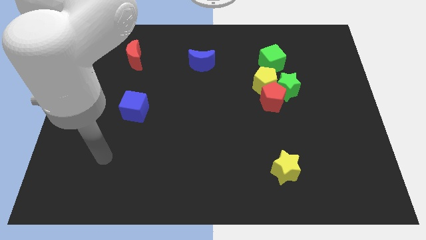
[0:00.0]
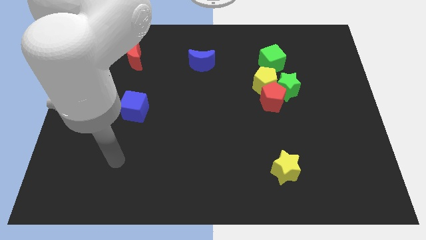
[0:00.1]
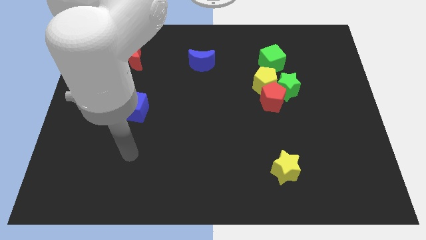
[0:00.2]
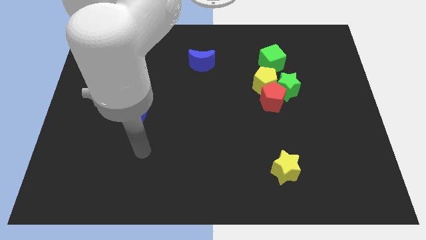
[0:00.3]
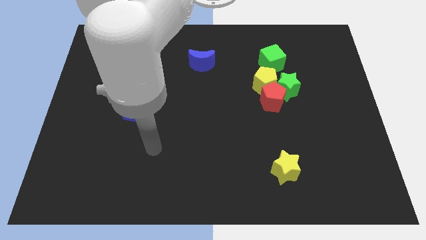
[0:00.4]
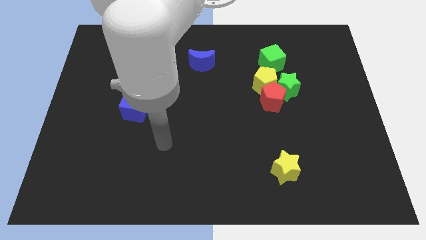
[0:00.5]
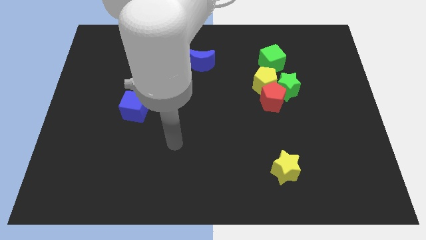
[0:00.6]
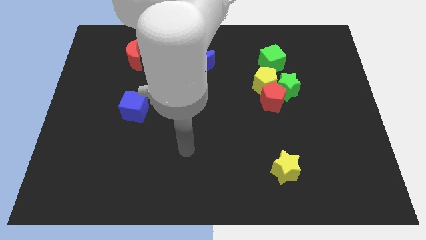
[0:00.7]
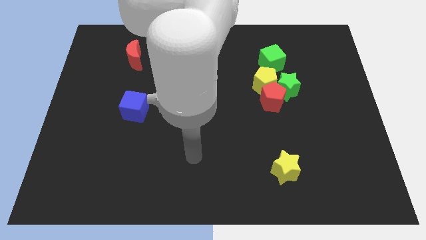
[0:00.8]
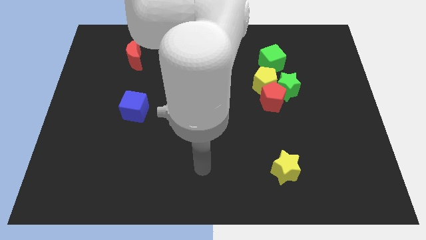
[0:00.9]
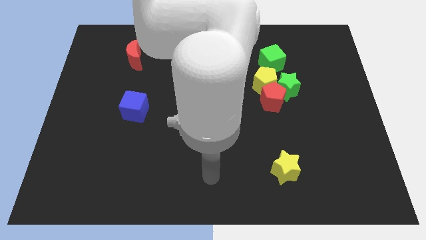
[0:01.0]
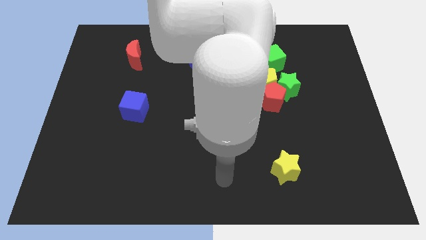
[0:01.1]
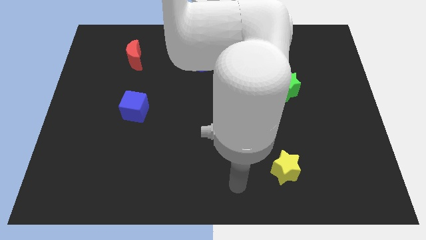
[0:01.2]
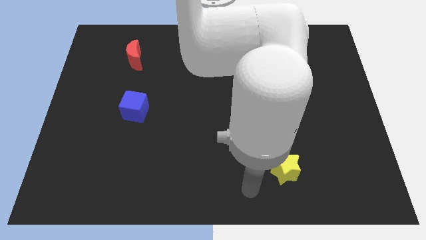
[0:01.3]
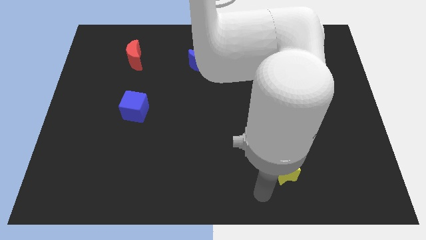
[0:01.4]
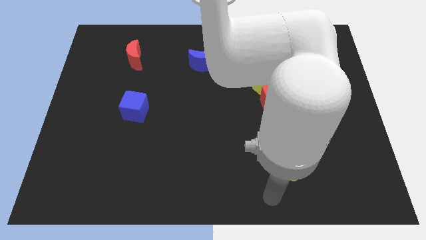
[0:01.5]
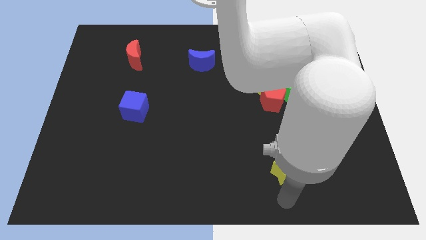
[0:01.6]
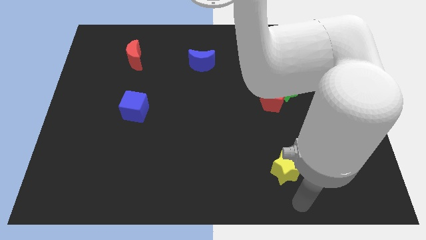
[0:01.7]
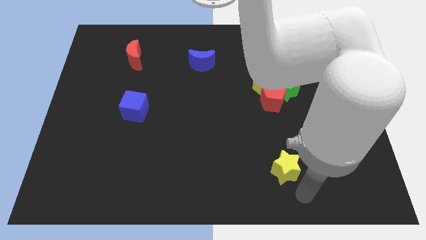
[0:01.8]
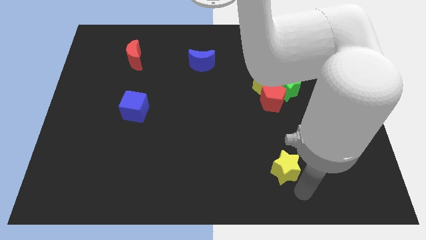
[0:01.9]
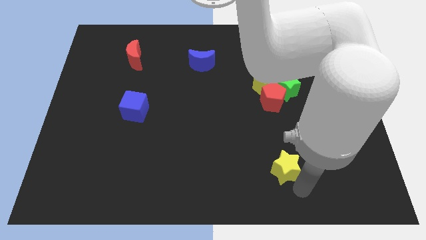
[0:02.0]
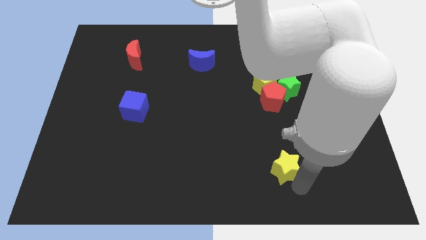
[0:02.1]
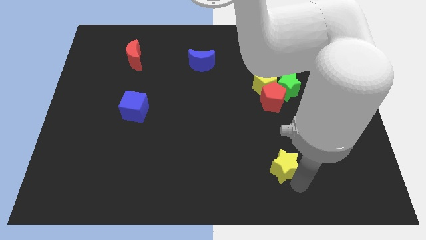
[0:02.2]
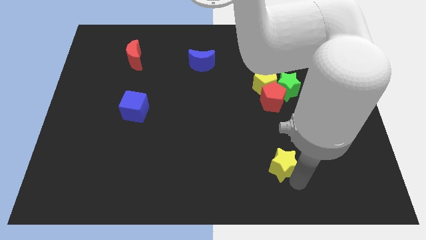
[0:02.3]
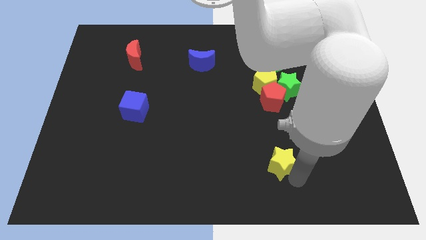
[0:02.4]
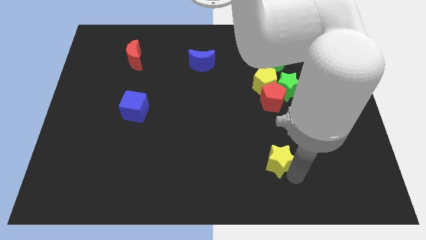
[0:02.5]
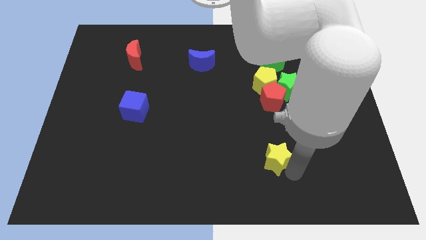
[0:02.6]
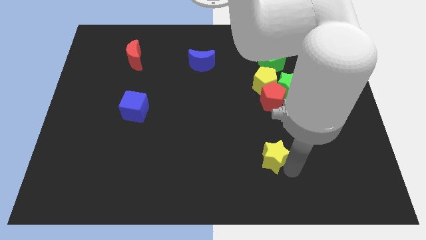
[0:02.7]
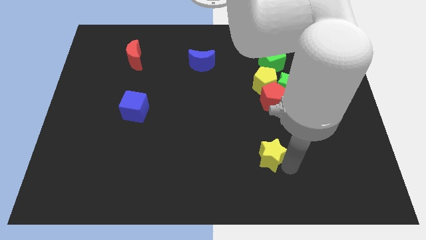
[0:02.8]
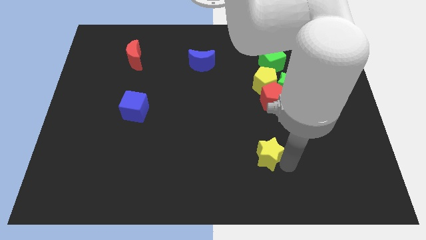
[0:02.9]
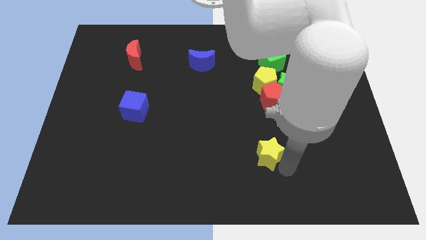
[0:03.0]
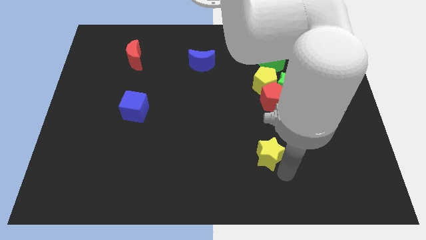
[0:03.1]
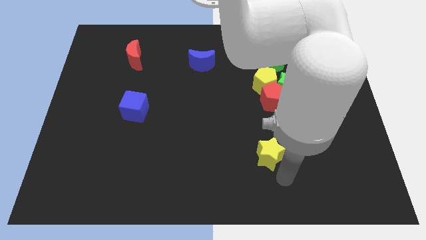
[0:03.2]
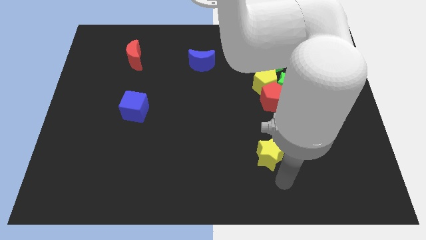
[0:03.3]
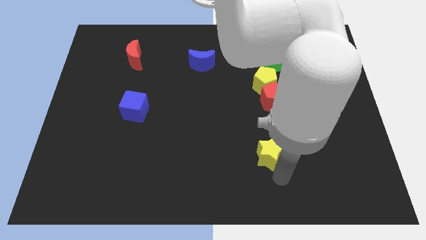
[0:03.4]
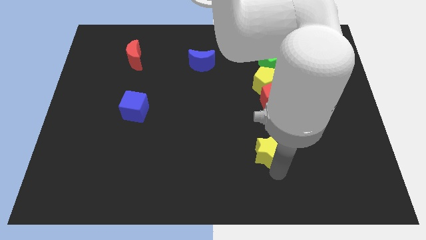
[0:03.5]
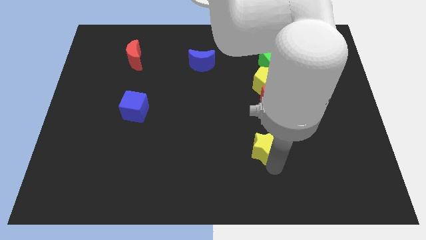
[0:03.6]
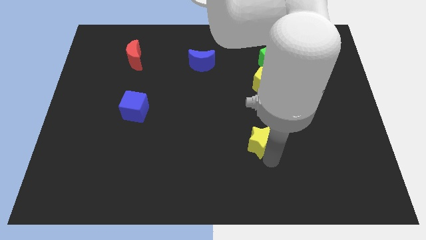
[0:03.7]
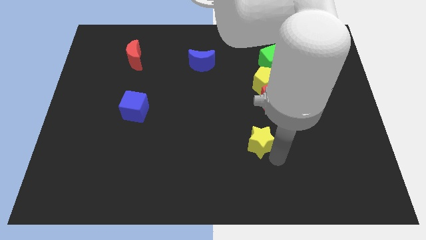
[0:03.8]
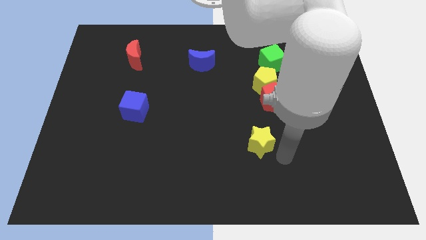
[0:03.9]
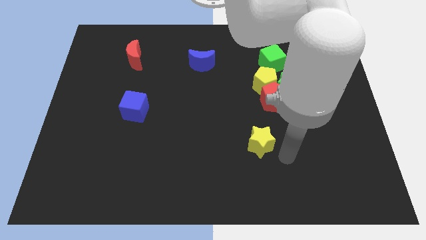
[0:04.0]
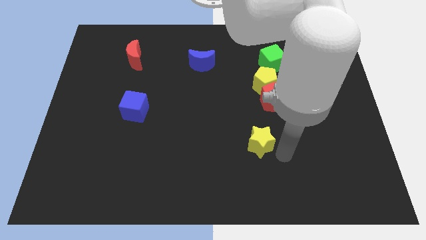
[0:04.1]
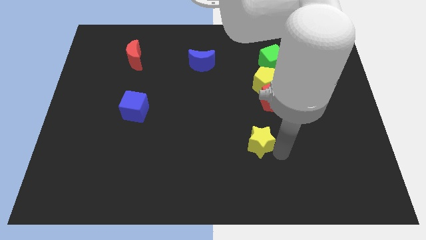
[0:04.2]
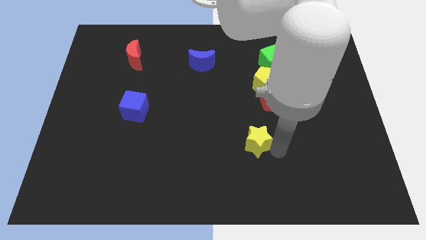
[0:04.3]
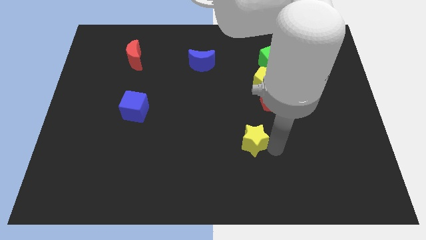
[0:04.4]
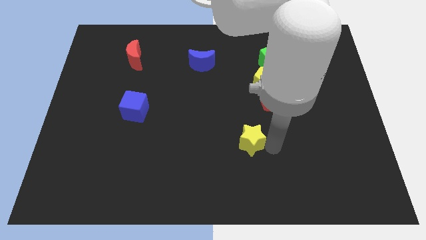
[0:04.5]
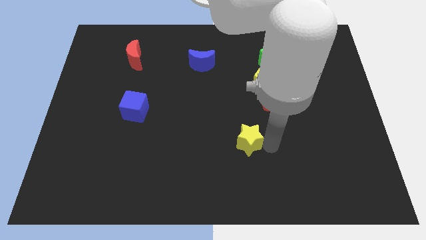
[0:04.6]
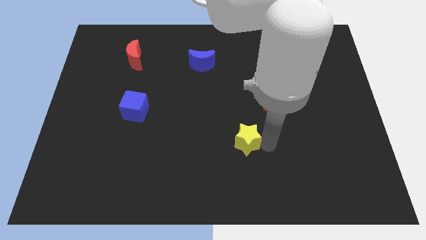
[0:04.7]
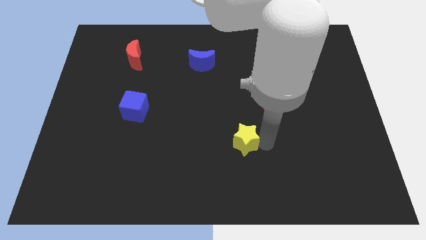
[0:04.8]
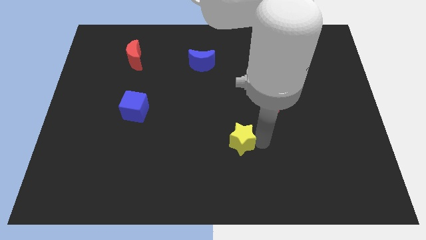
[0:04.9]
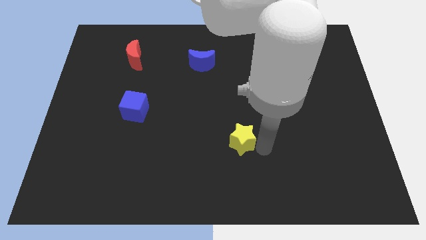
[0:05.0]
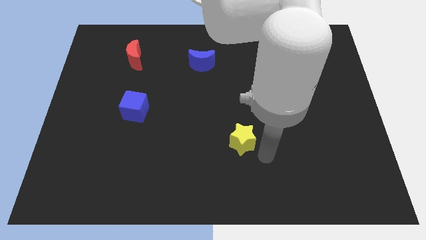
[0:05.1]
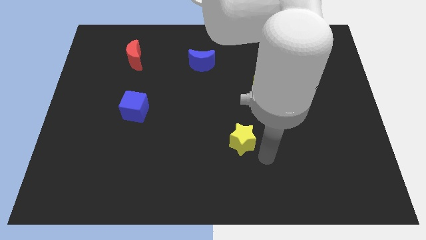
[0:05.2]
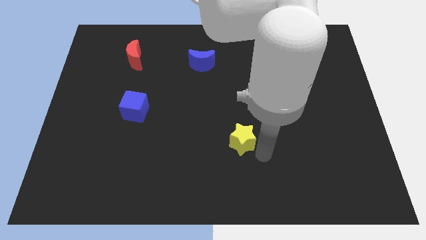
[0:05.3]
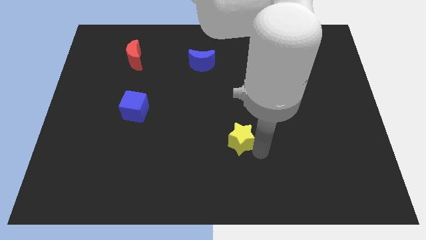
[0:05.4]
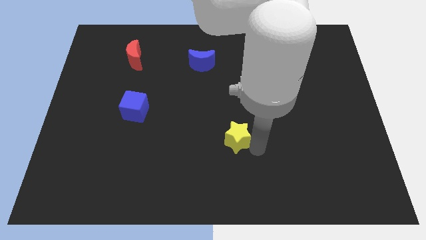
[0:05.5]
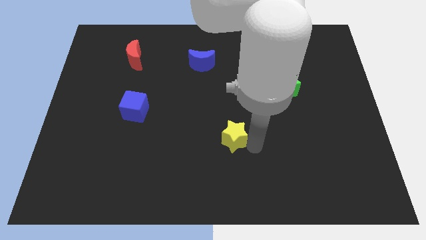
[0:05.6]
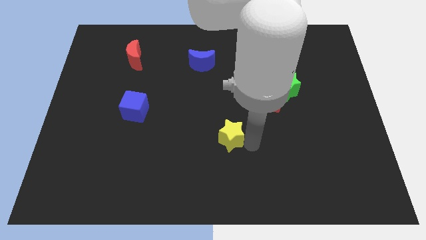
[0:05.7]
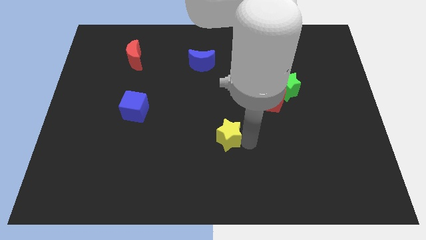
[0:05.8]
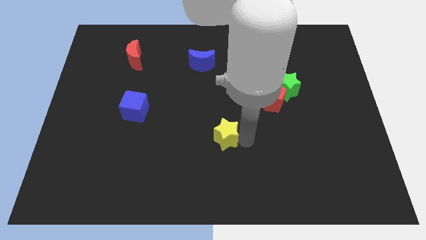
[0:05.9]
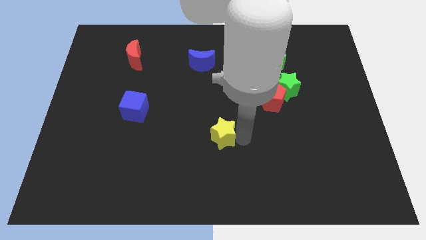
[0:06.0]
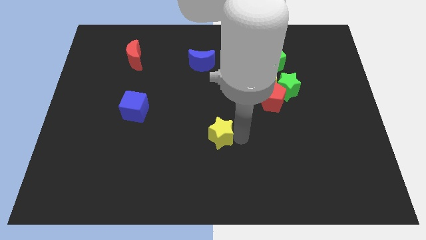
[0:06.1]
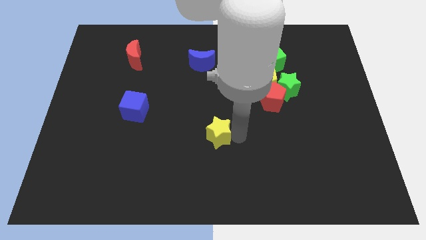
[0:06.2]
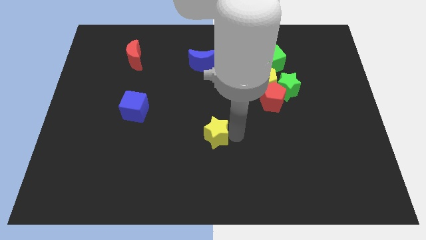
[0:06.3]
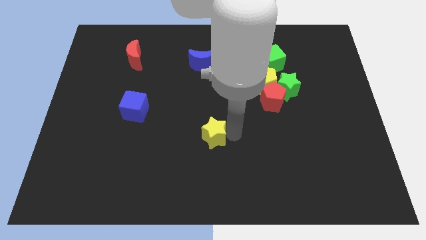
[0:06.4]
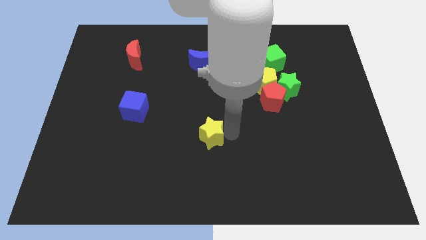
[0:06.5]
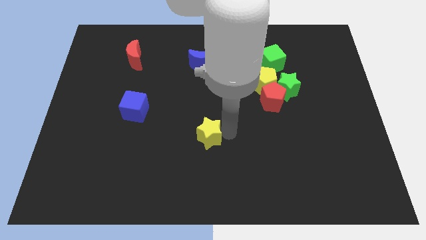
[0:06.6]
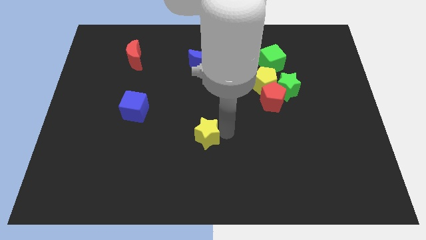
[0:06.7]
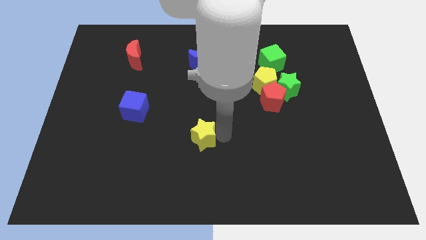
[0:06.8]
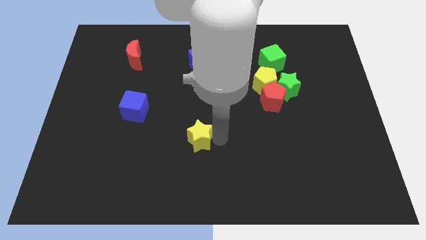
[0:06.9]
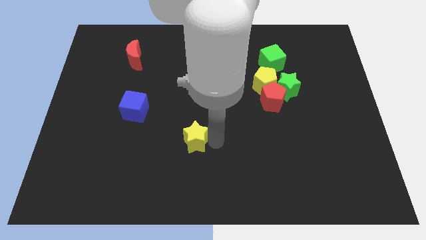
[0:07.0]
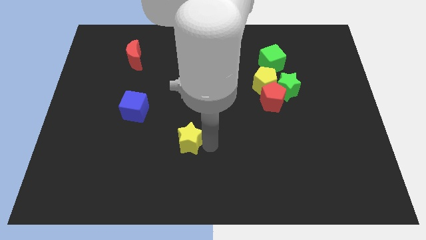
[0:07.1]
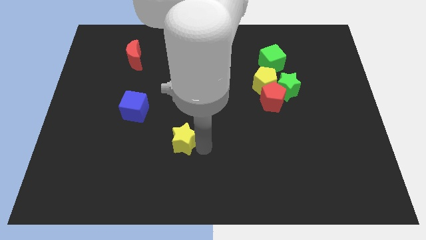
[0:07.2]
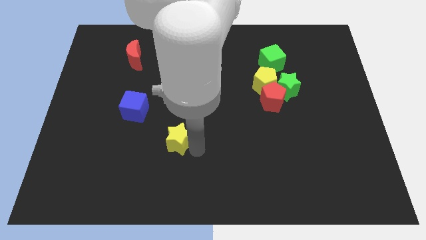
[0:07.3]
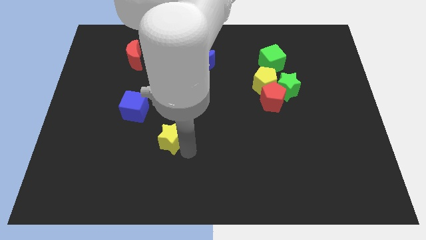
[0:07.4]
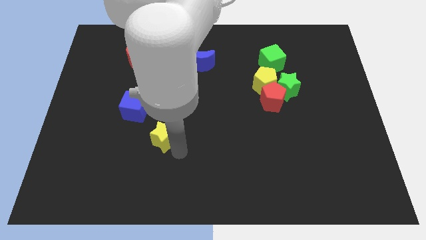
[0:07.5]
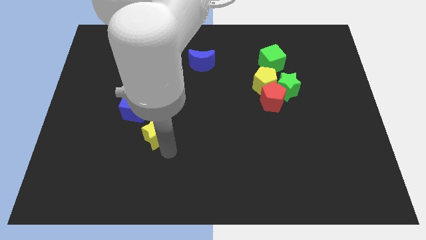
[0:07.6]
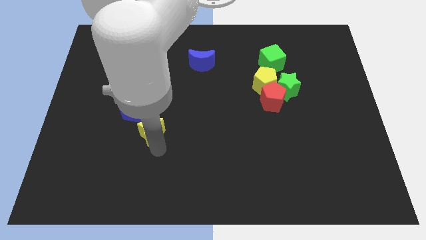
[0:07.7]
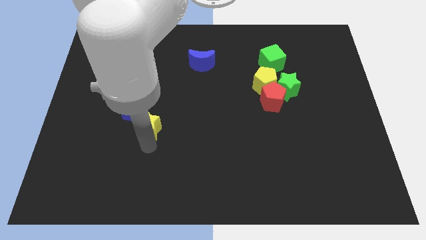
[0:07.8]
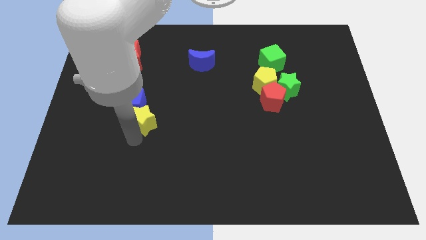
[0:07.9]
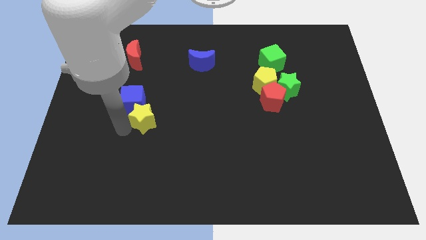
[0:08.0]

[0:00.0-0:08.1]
push the yellow star upwards and then to the left

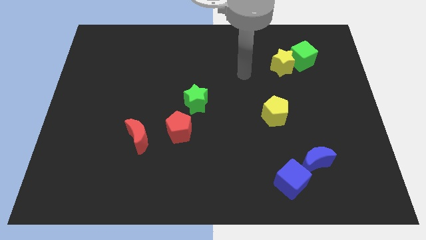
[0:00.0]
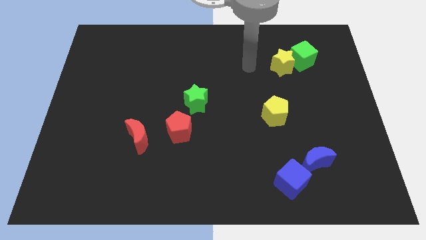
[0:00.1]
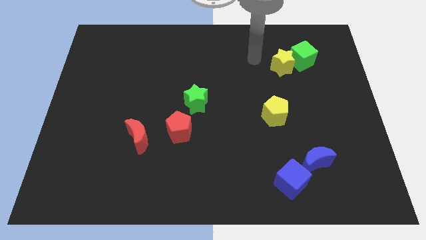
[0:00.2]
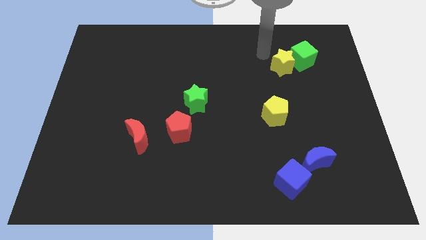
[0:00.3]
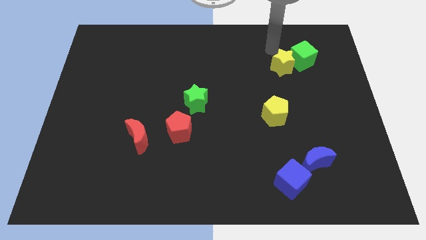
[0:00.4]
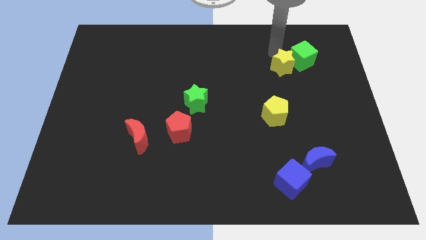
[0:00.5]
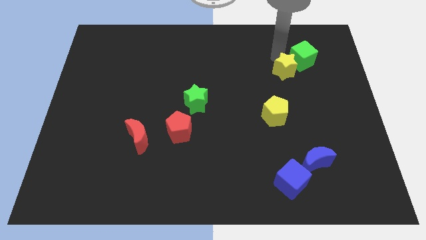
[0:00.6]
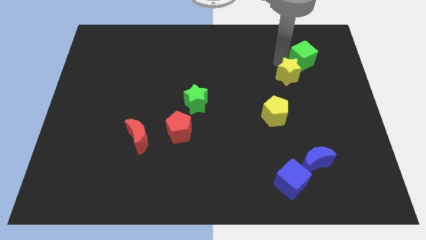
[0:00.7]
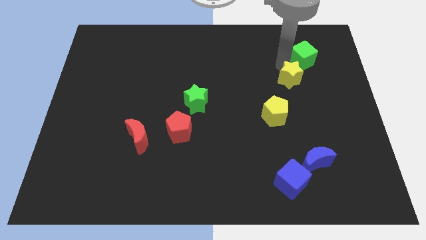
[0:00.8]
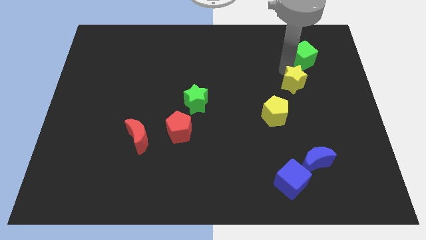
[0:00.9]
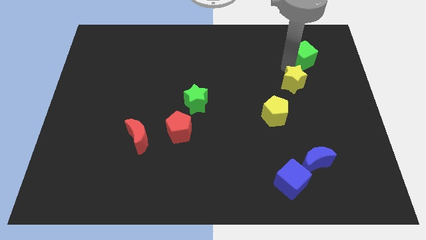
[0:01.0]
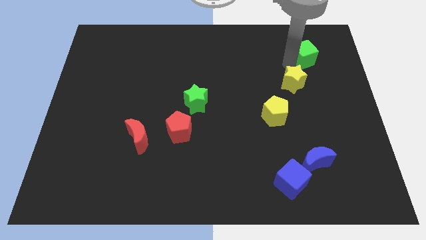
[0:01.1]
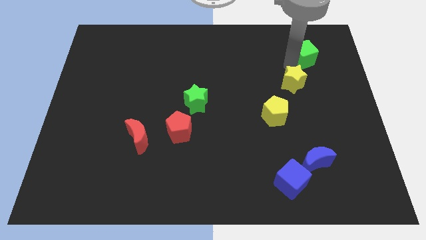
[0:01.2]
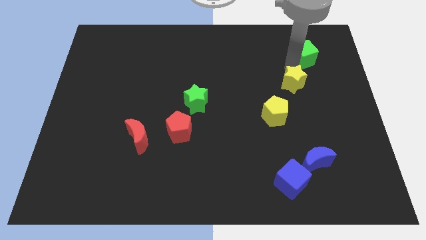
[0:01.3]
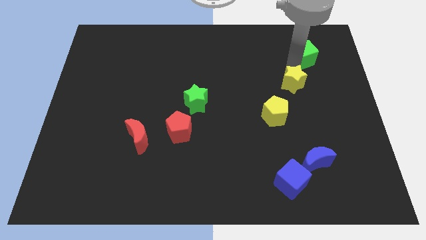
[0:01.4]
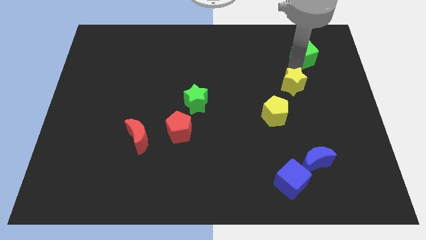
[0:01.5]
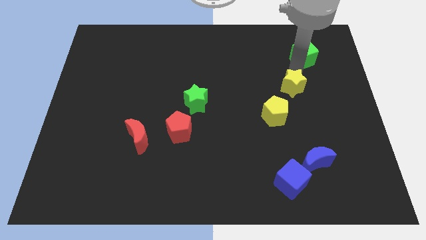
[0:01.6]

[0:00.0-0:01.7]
slightly slide the yellow star downwards
